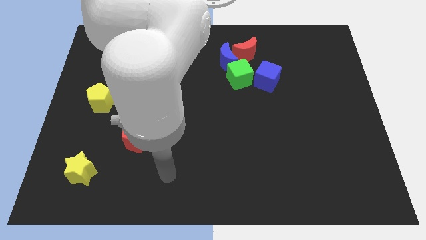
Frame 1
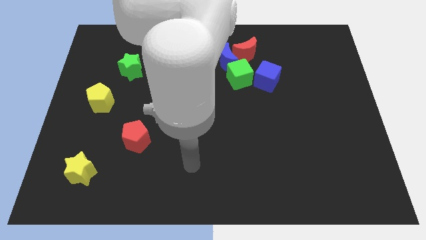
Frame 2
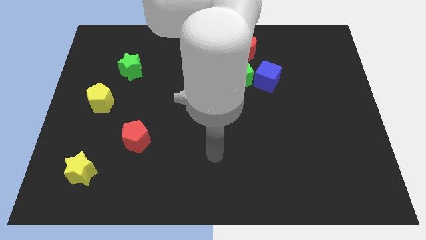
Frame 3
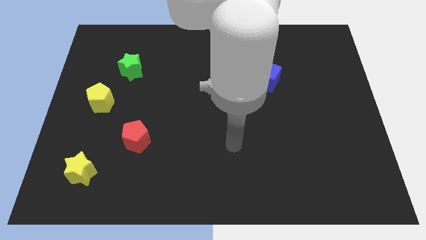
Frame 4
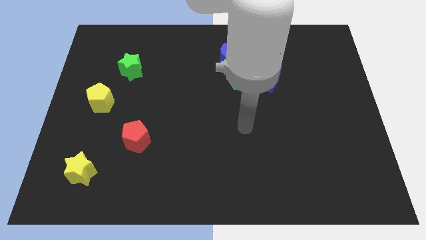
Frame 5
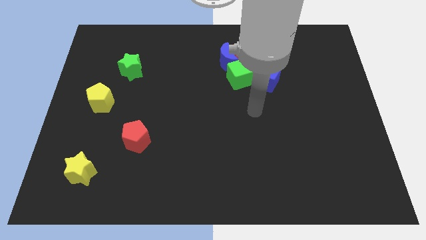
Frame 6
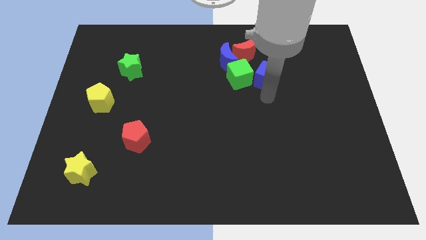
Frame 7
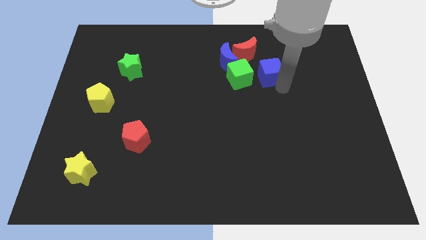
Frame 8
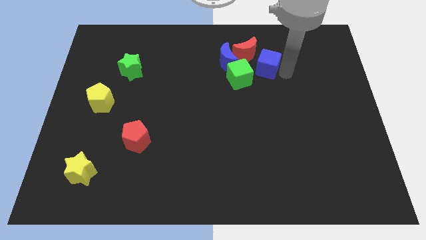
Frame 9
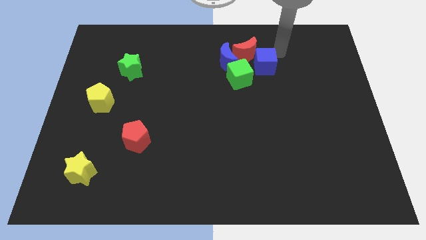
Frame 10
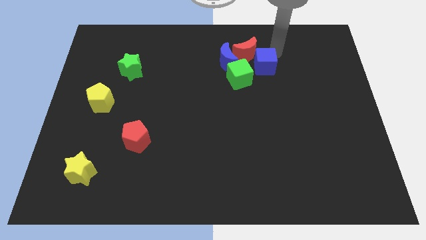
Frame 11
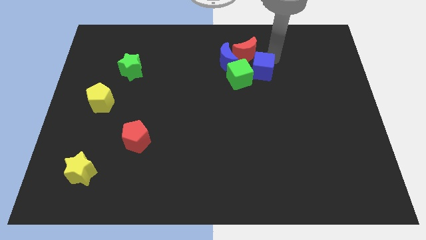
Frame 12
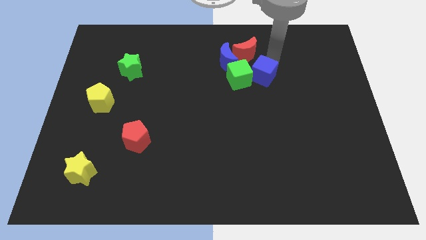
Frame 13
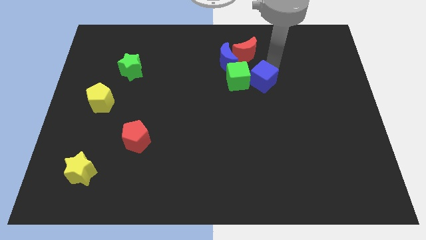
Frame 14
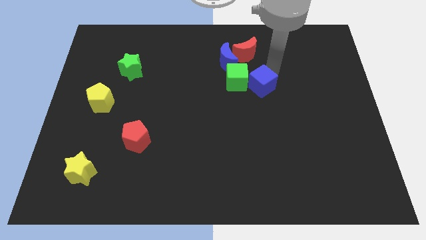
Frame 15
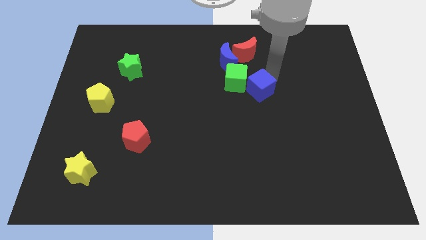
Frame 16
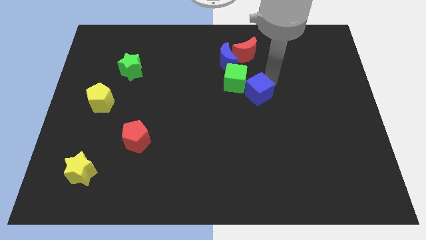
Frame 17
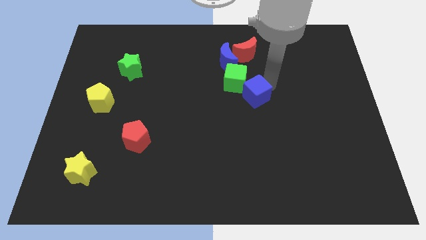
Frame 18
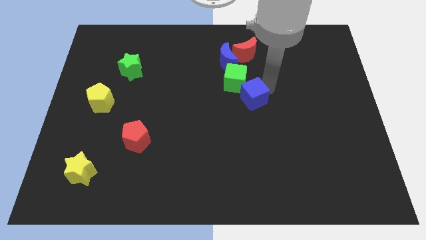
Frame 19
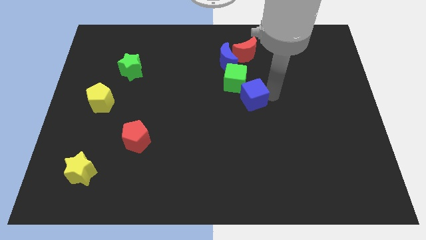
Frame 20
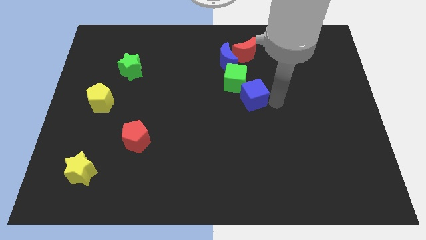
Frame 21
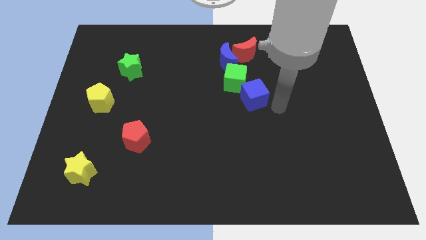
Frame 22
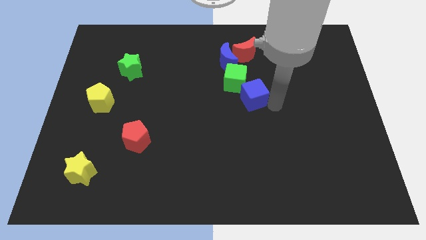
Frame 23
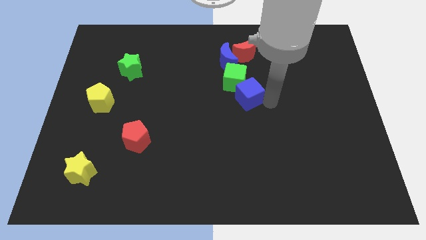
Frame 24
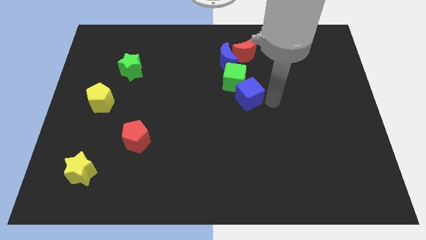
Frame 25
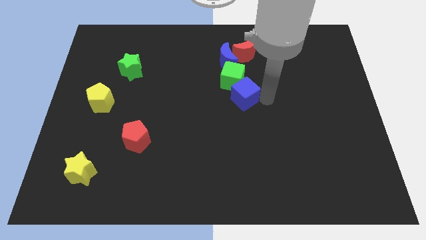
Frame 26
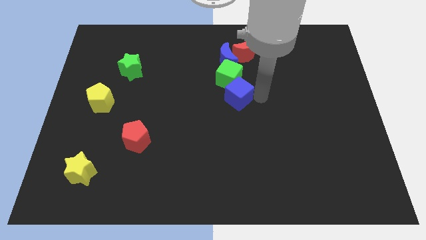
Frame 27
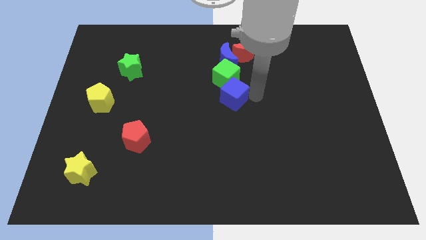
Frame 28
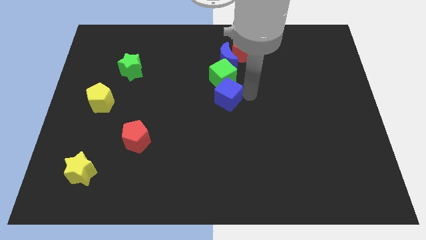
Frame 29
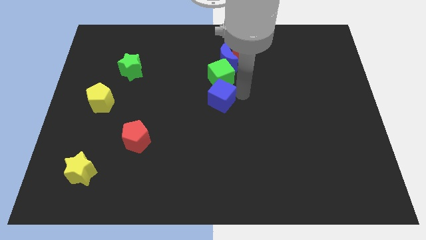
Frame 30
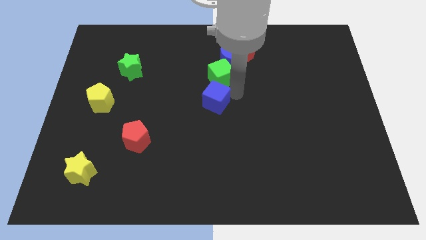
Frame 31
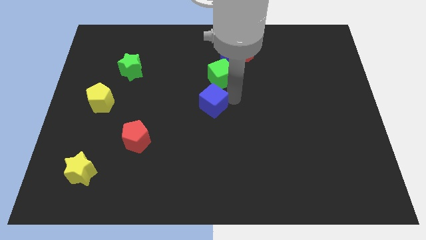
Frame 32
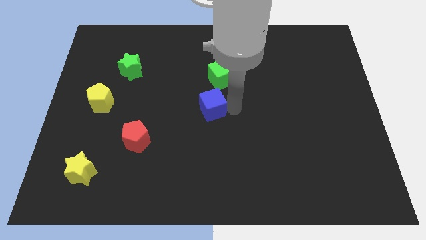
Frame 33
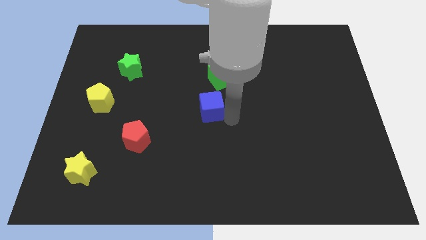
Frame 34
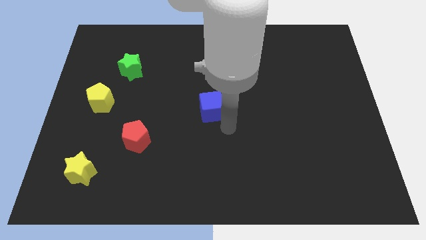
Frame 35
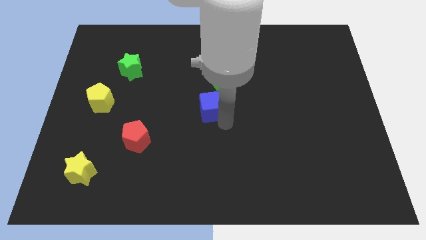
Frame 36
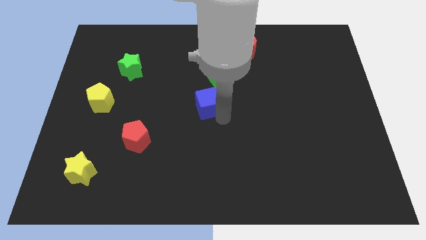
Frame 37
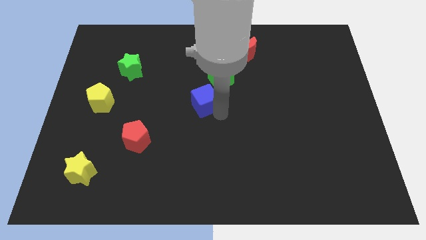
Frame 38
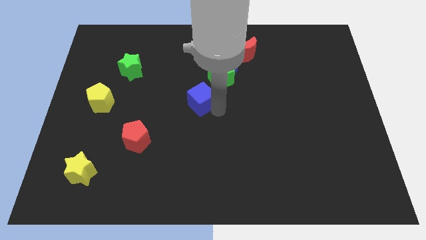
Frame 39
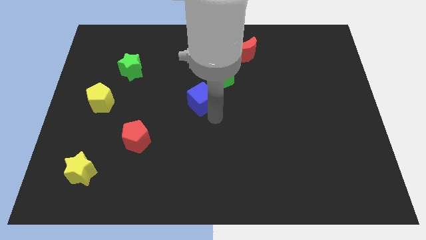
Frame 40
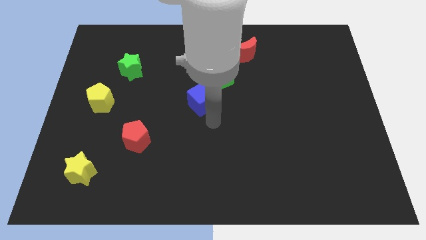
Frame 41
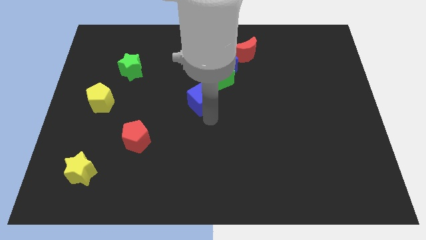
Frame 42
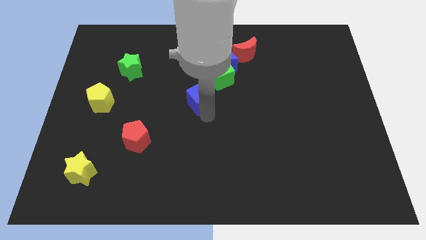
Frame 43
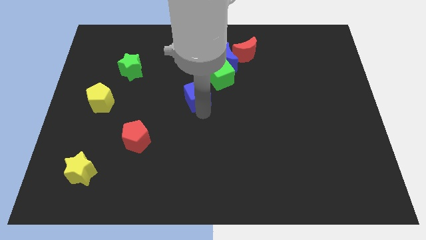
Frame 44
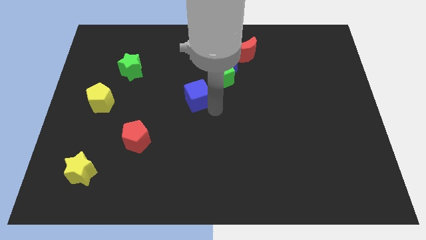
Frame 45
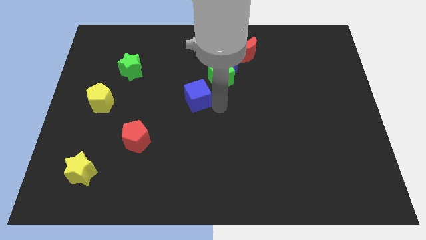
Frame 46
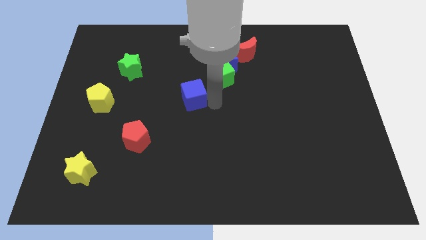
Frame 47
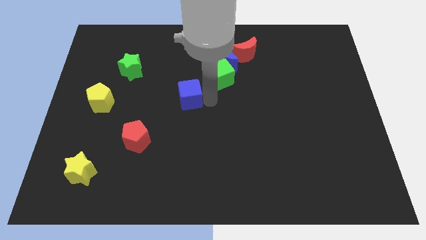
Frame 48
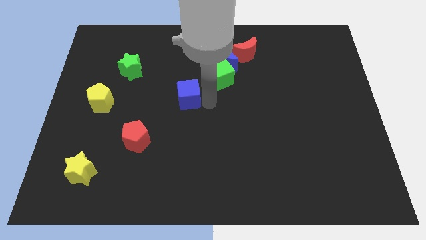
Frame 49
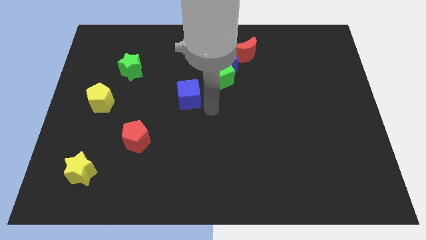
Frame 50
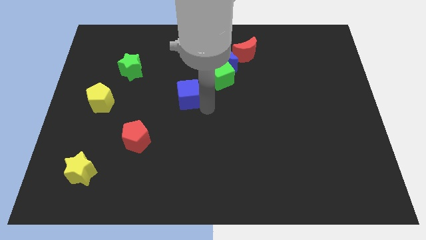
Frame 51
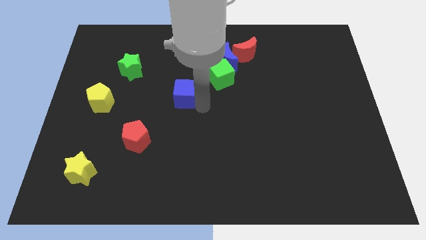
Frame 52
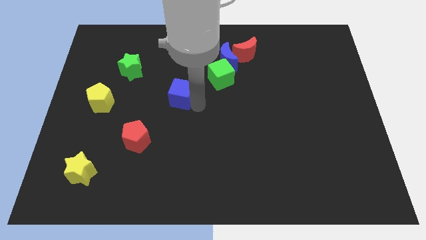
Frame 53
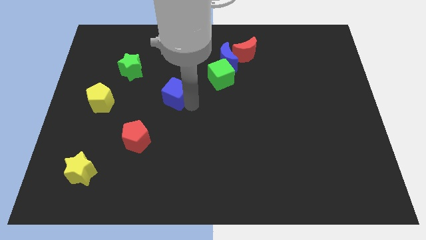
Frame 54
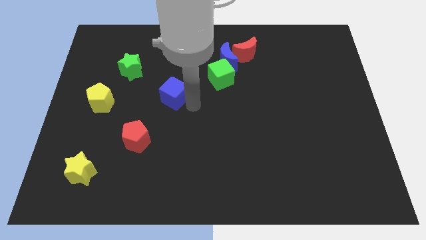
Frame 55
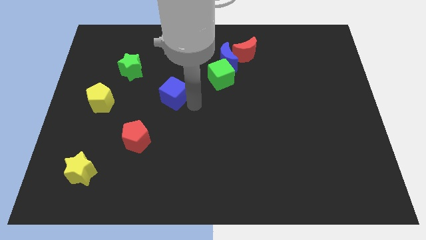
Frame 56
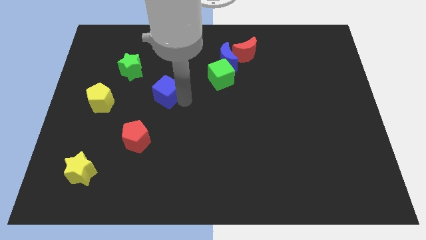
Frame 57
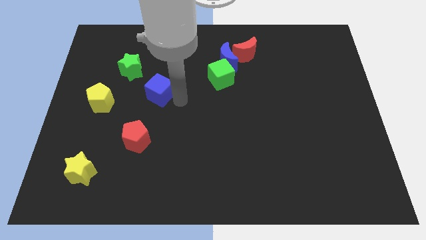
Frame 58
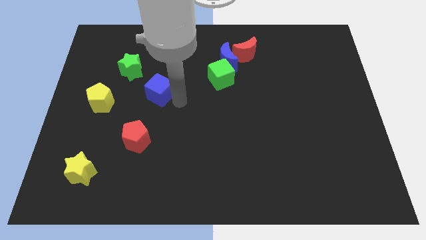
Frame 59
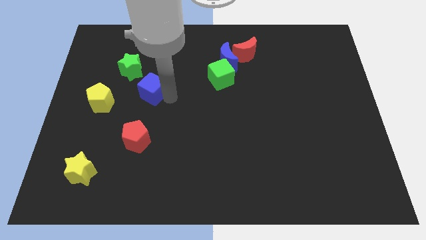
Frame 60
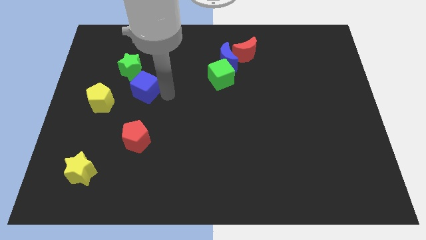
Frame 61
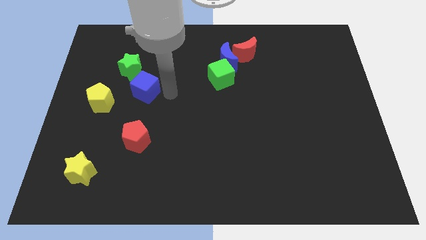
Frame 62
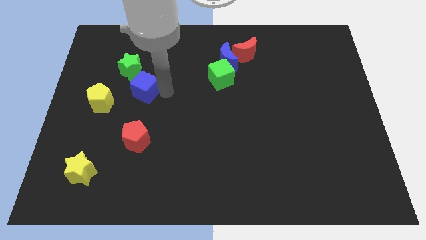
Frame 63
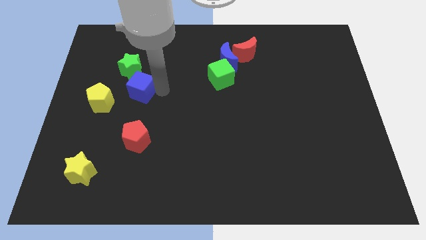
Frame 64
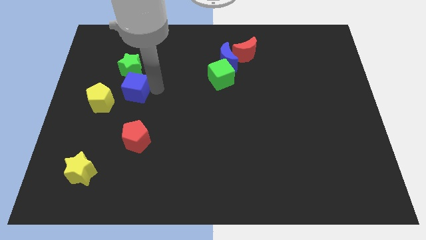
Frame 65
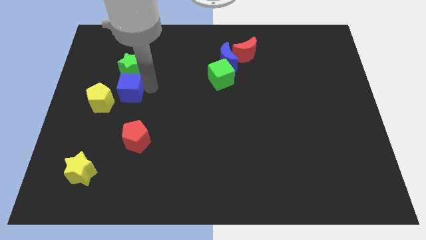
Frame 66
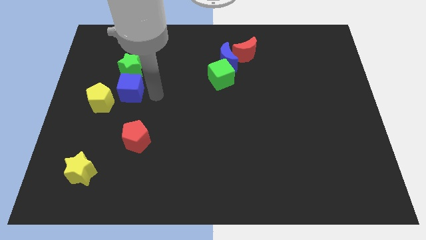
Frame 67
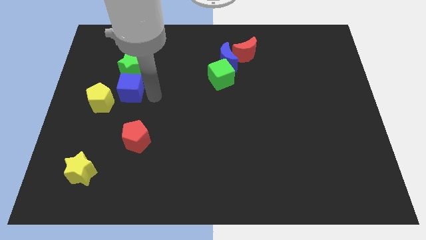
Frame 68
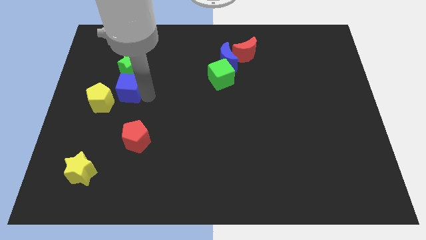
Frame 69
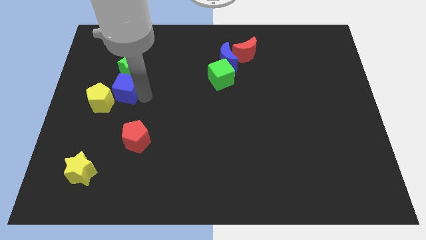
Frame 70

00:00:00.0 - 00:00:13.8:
move the blue cube to the bottom left of the green star
